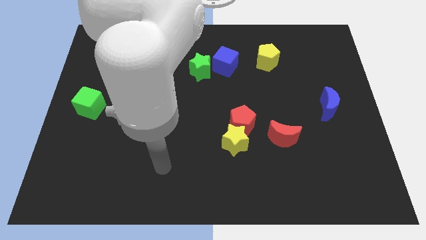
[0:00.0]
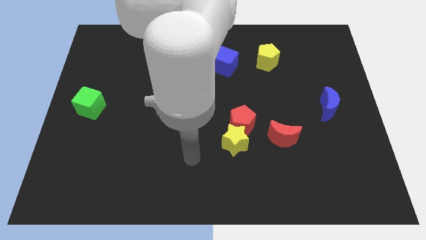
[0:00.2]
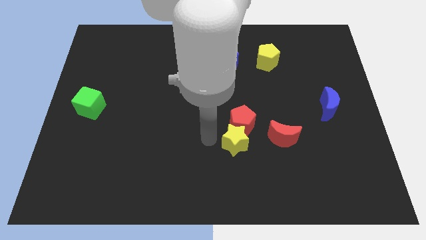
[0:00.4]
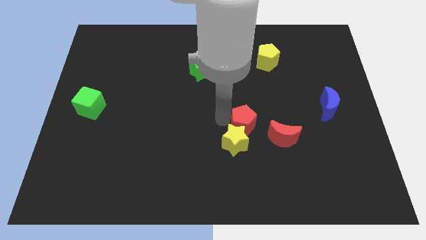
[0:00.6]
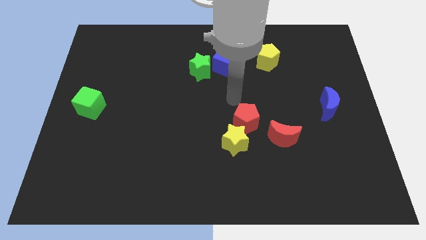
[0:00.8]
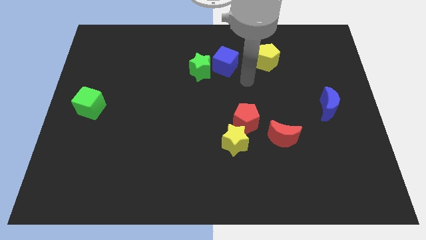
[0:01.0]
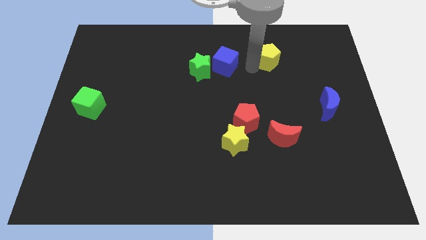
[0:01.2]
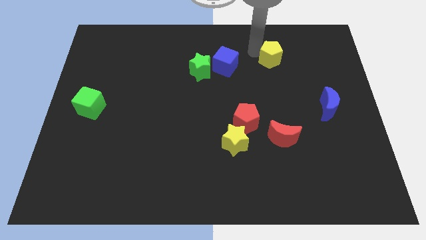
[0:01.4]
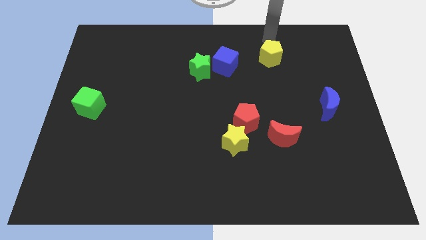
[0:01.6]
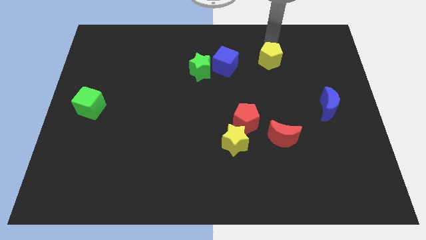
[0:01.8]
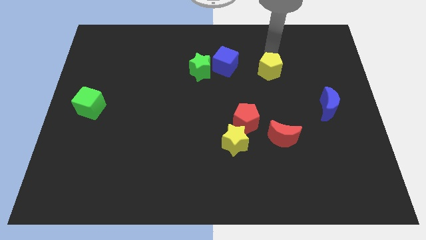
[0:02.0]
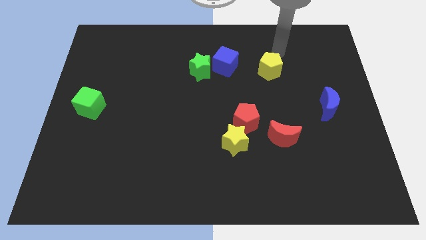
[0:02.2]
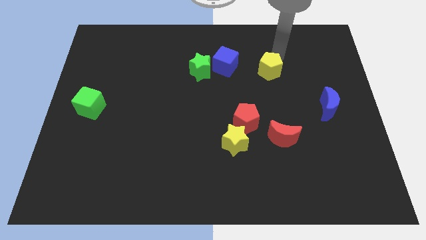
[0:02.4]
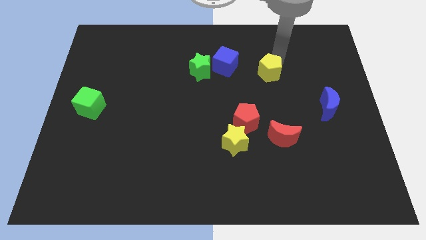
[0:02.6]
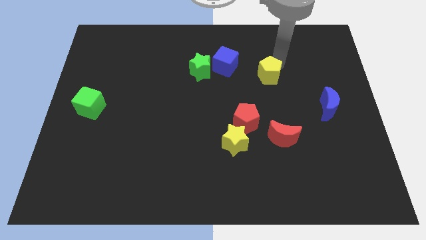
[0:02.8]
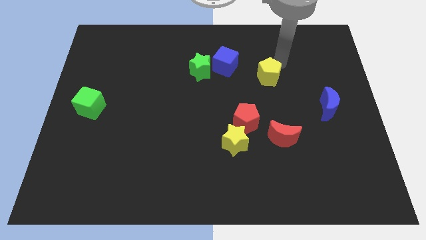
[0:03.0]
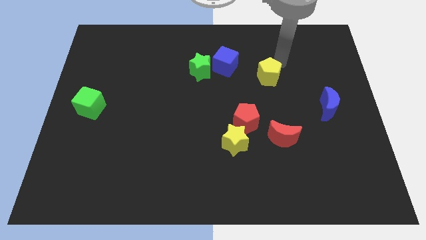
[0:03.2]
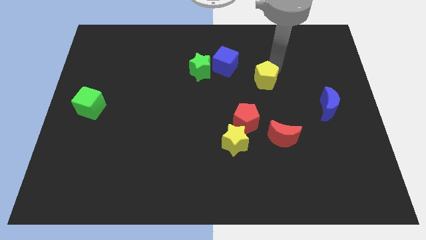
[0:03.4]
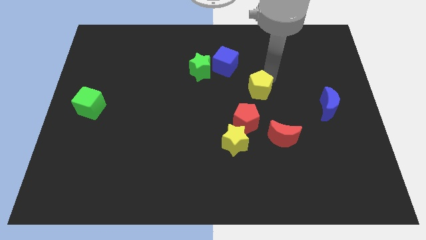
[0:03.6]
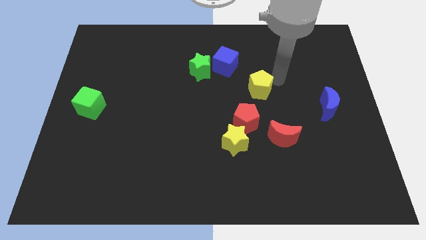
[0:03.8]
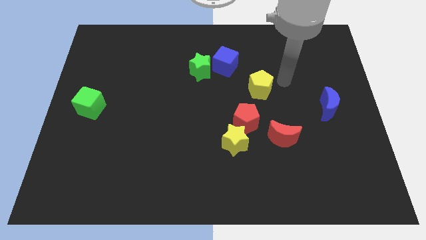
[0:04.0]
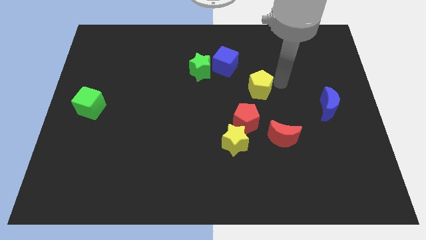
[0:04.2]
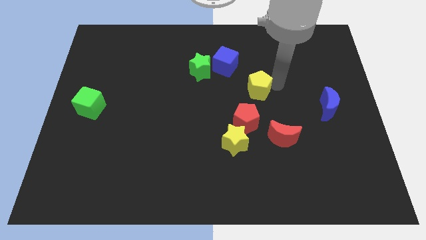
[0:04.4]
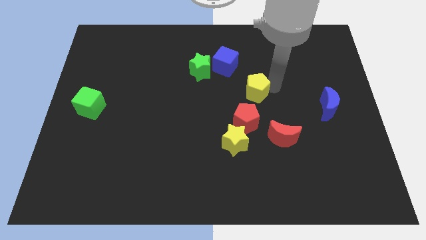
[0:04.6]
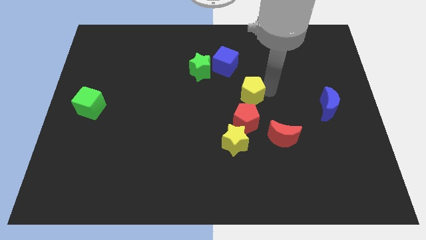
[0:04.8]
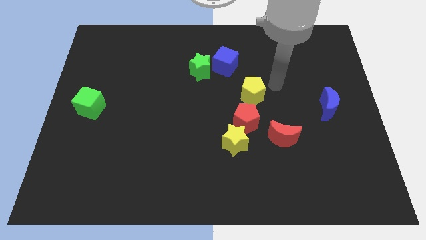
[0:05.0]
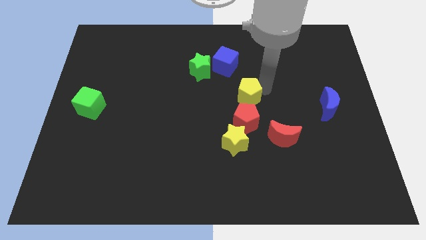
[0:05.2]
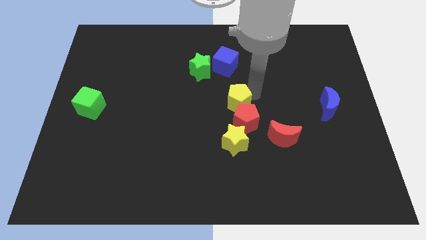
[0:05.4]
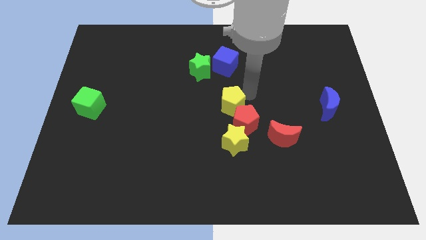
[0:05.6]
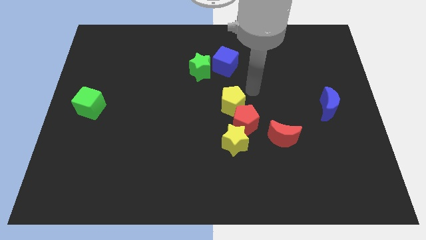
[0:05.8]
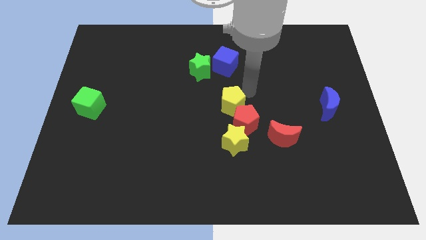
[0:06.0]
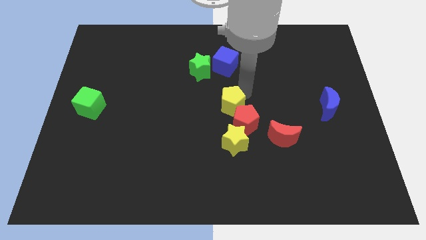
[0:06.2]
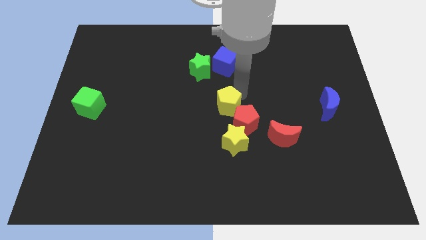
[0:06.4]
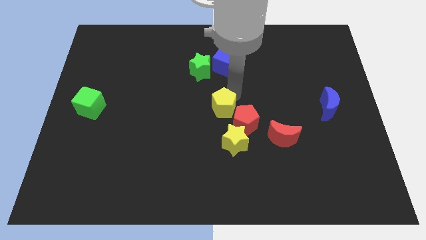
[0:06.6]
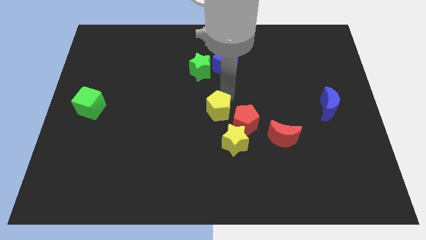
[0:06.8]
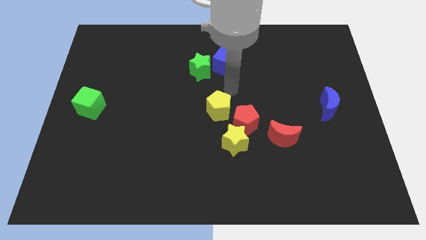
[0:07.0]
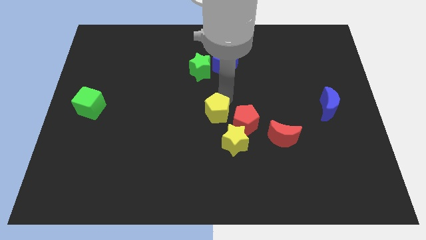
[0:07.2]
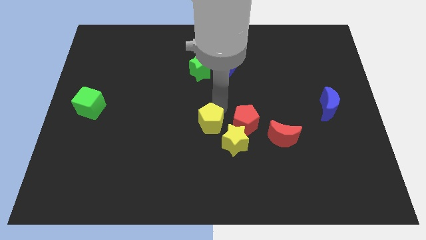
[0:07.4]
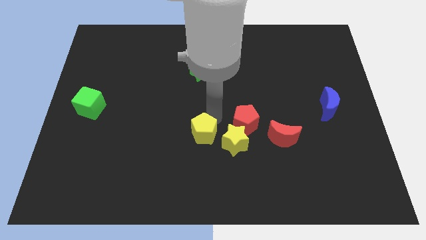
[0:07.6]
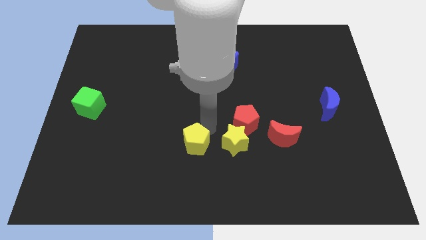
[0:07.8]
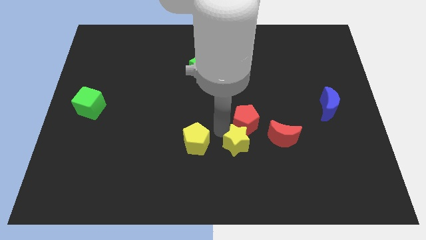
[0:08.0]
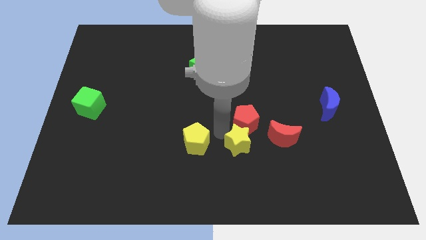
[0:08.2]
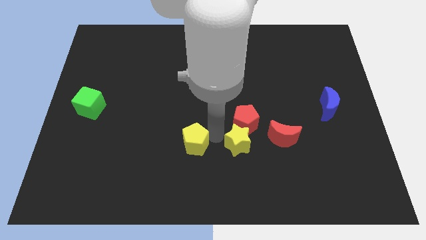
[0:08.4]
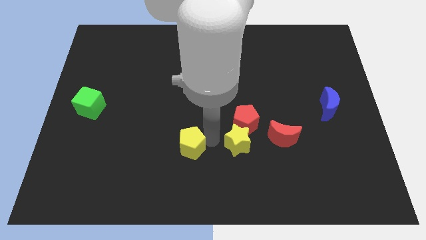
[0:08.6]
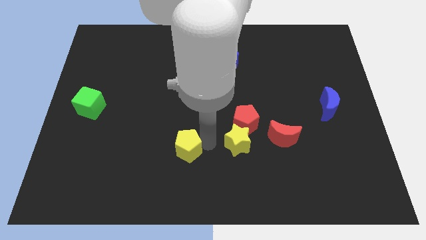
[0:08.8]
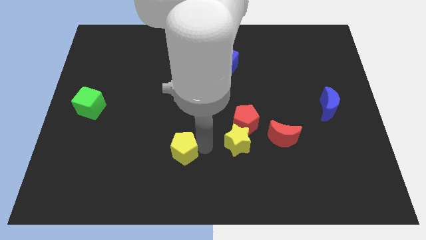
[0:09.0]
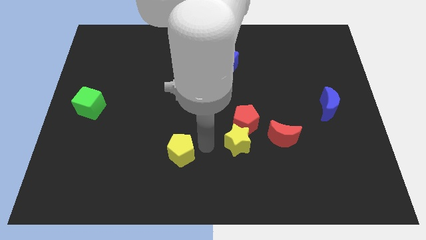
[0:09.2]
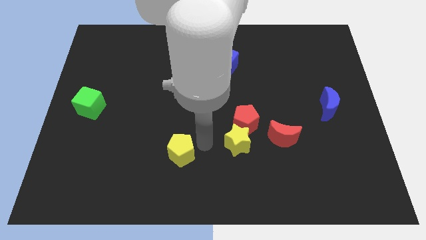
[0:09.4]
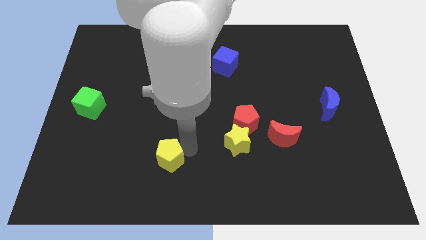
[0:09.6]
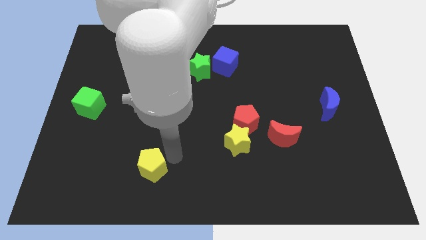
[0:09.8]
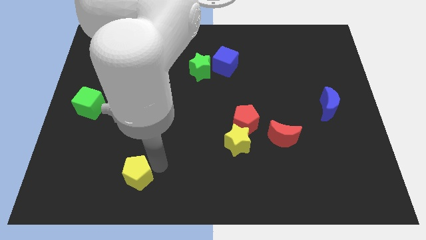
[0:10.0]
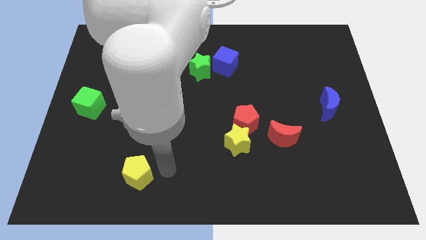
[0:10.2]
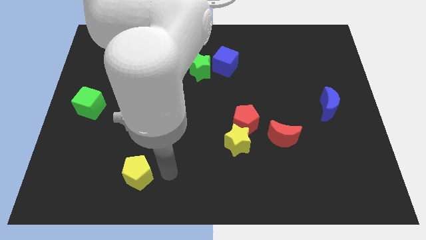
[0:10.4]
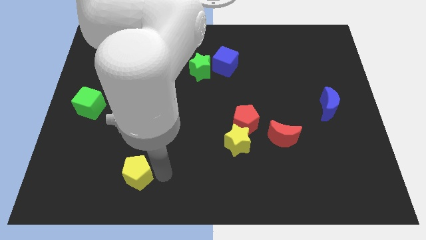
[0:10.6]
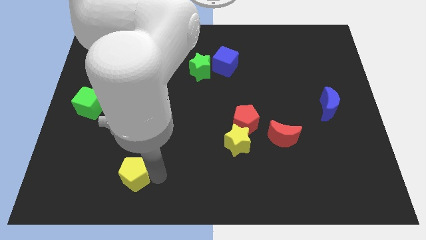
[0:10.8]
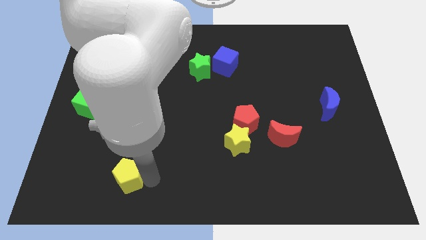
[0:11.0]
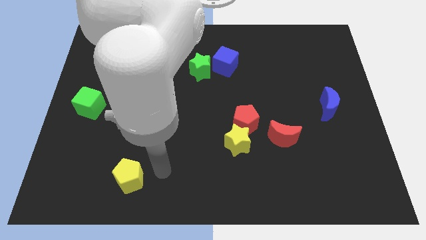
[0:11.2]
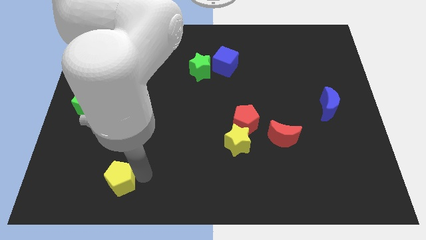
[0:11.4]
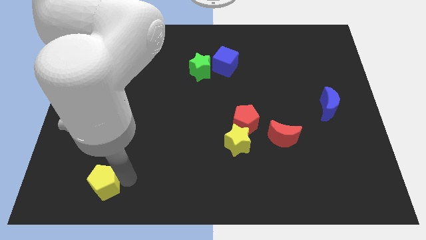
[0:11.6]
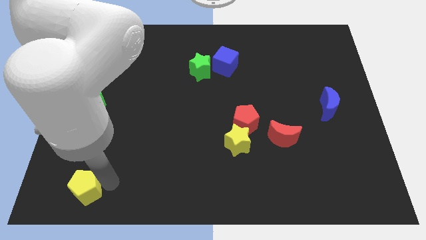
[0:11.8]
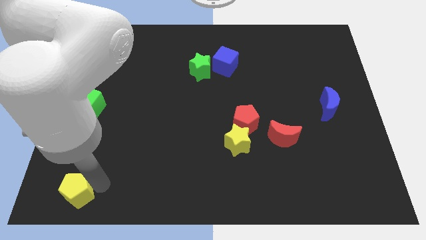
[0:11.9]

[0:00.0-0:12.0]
slide the yellow pentagon to the bottom left of the board

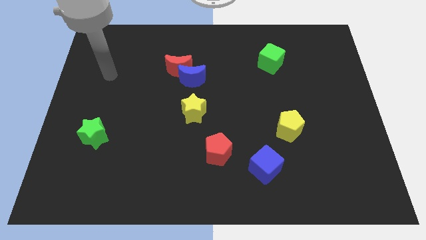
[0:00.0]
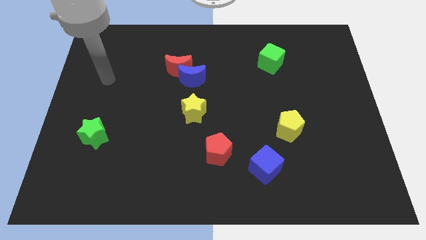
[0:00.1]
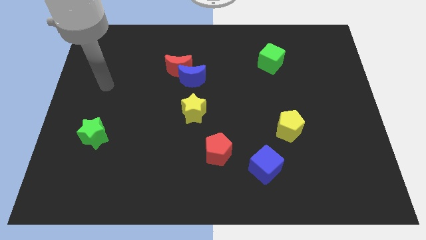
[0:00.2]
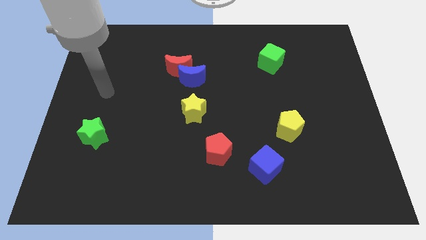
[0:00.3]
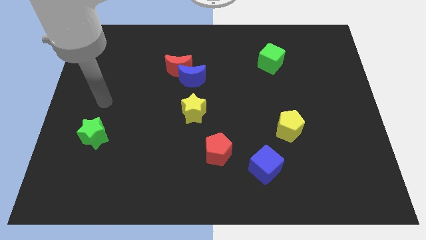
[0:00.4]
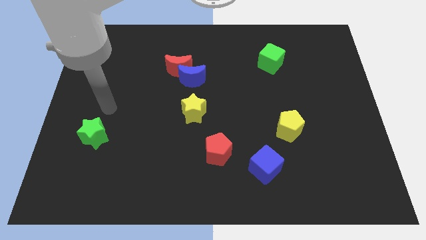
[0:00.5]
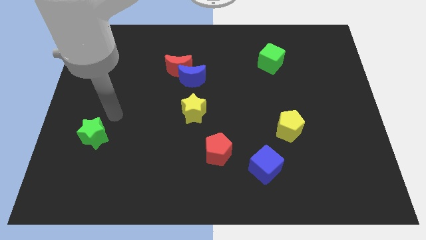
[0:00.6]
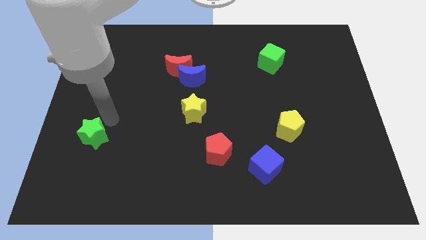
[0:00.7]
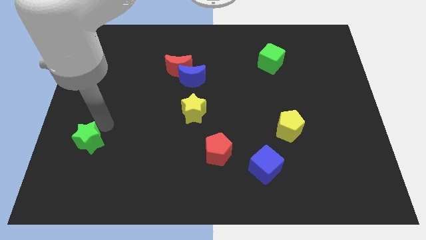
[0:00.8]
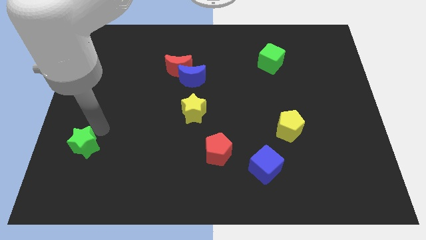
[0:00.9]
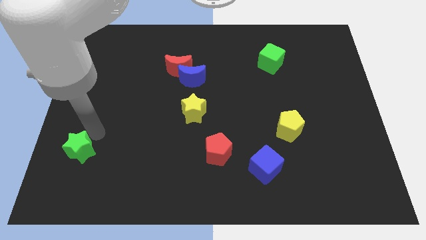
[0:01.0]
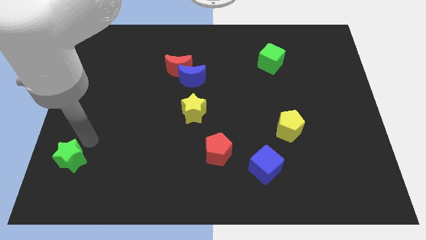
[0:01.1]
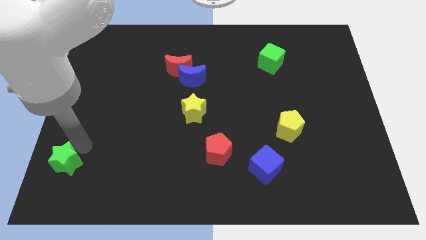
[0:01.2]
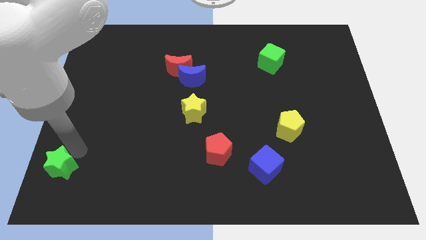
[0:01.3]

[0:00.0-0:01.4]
slide the green star to the bottom left corner
